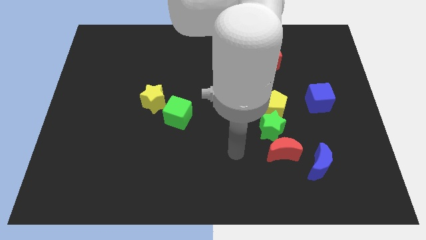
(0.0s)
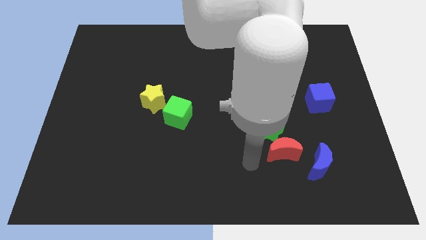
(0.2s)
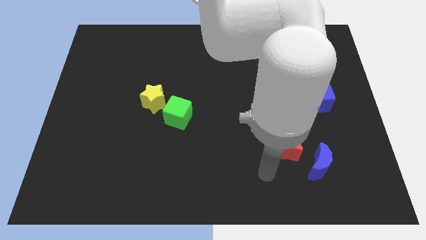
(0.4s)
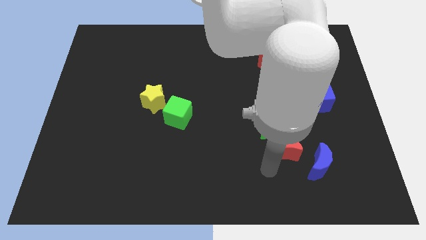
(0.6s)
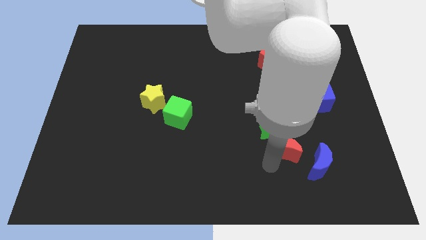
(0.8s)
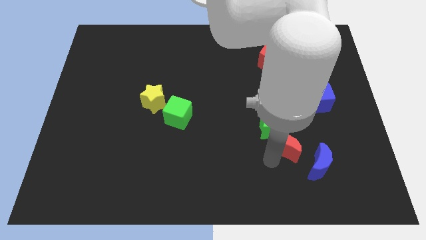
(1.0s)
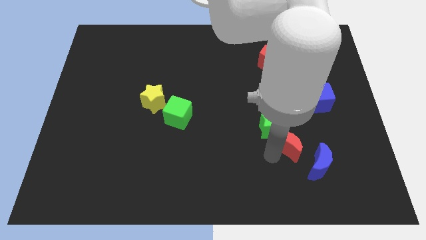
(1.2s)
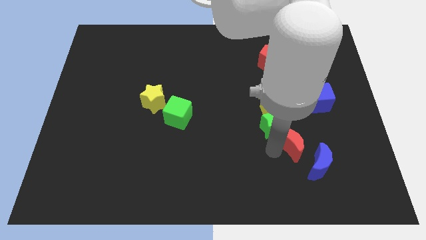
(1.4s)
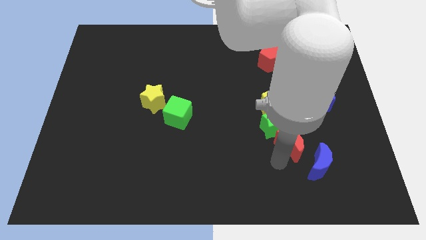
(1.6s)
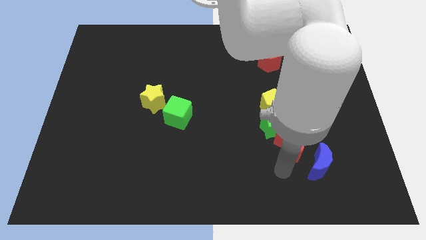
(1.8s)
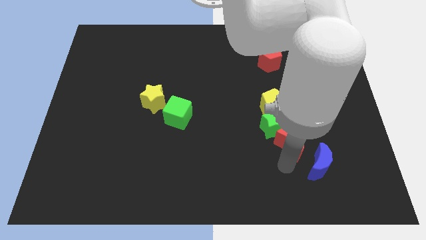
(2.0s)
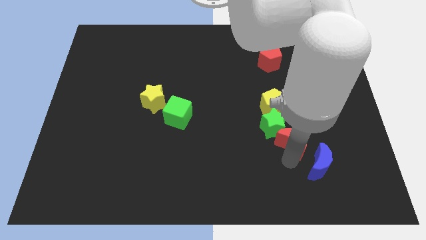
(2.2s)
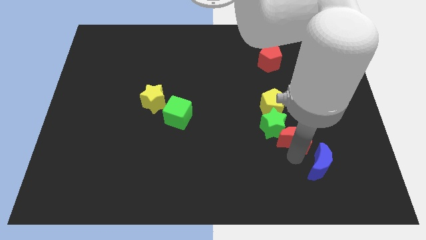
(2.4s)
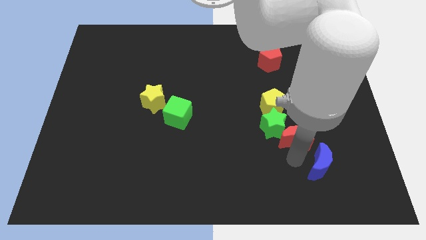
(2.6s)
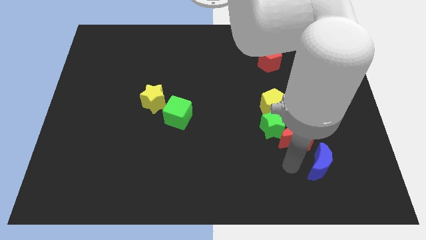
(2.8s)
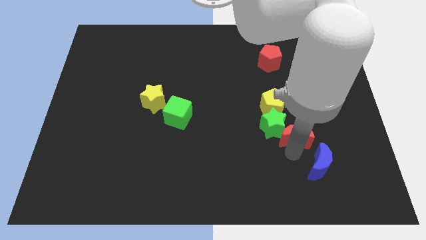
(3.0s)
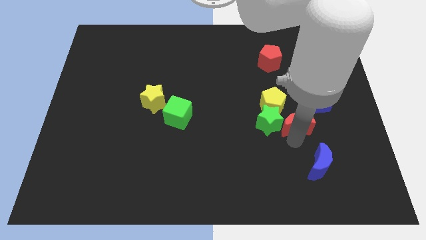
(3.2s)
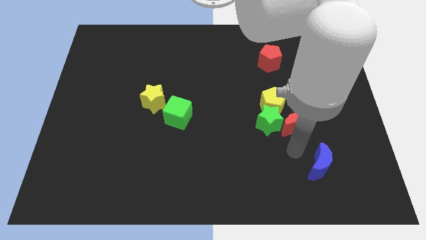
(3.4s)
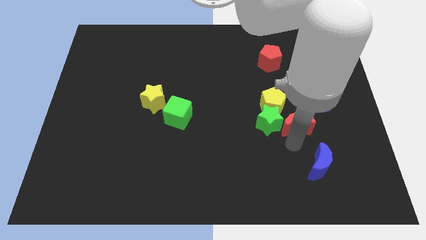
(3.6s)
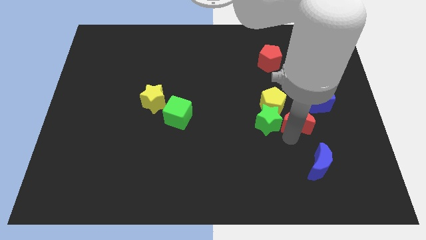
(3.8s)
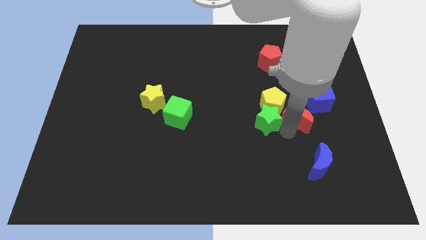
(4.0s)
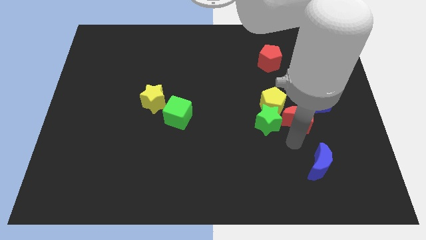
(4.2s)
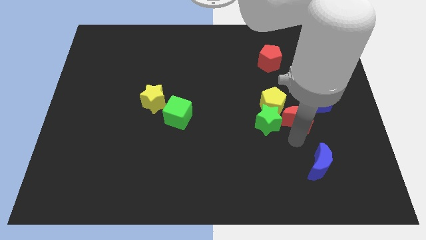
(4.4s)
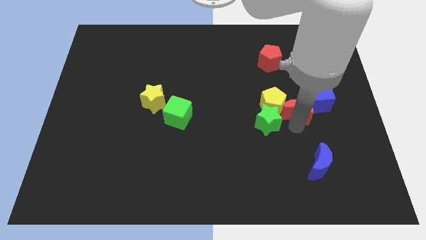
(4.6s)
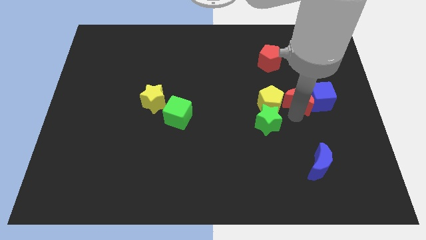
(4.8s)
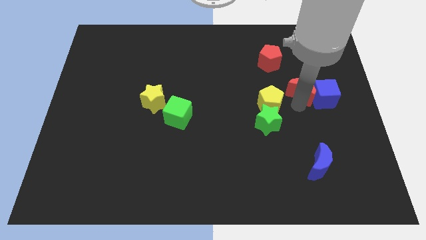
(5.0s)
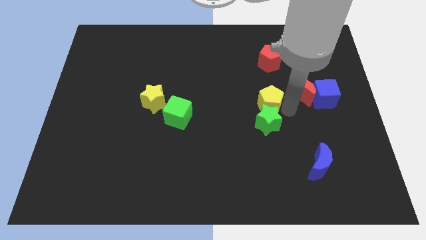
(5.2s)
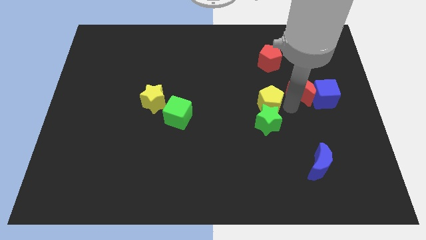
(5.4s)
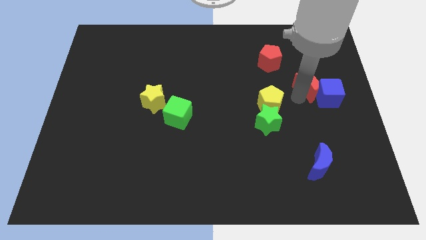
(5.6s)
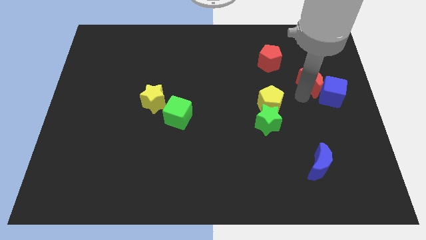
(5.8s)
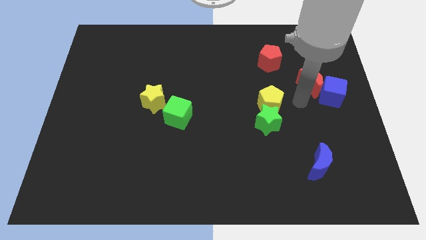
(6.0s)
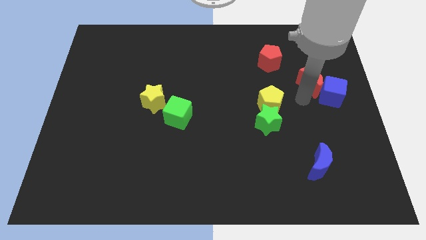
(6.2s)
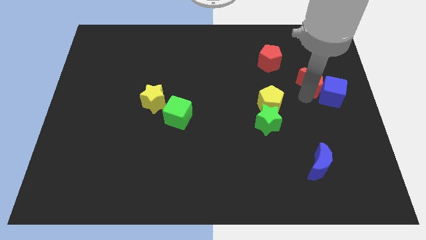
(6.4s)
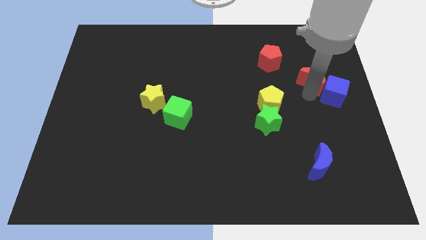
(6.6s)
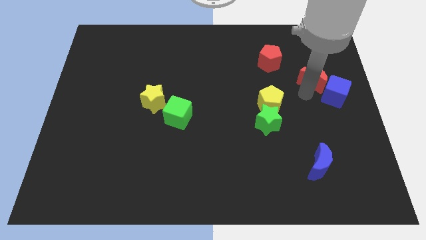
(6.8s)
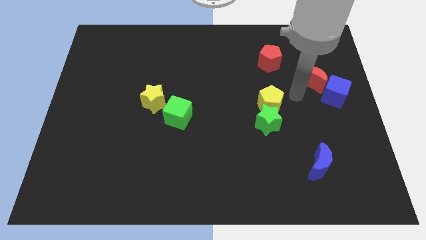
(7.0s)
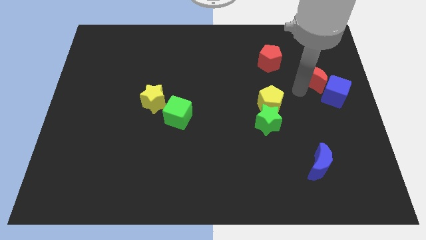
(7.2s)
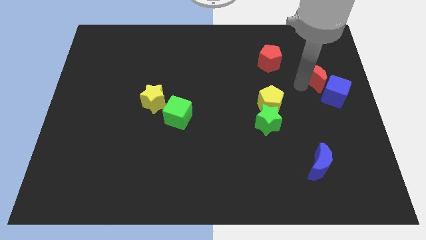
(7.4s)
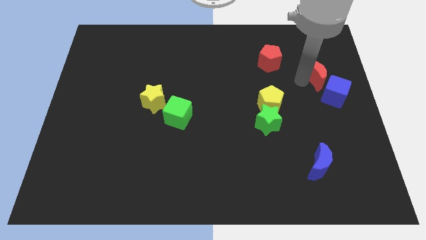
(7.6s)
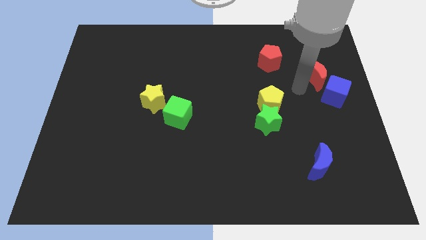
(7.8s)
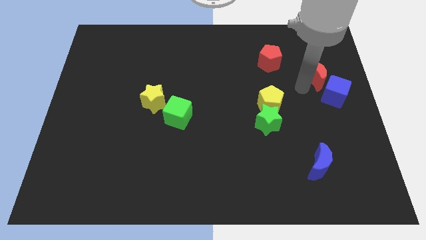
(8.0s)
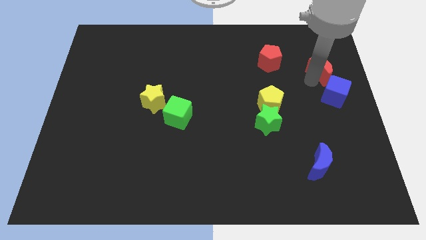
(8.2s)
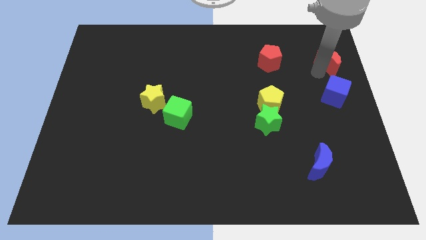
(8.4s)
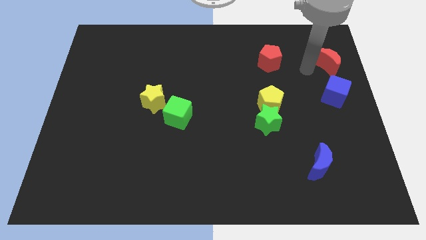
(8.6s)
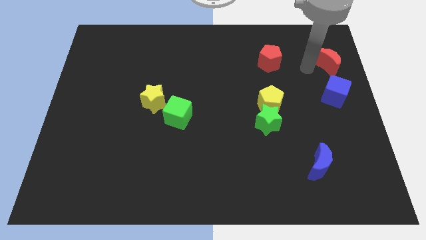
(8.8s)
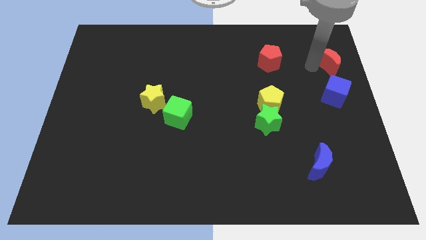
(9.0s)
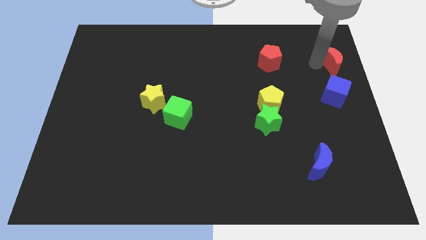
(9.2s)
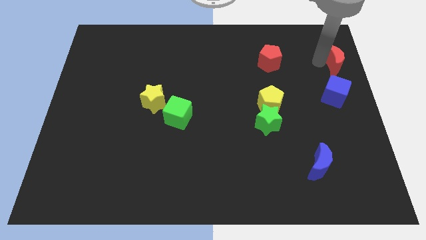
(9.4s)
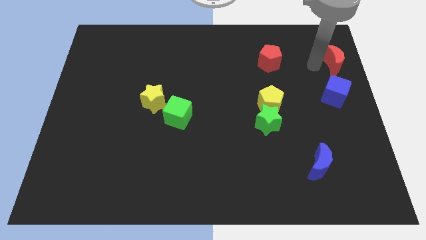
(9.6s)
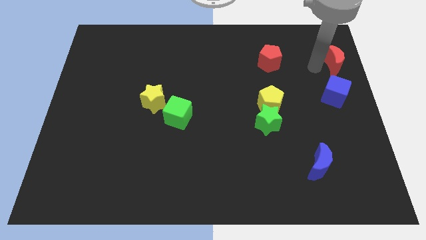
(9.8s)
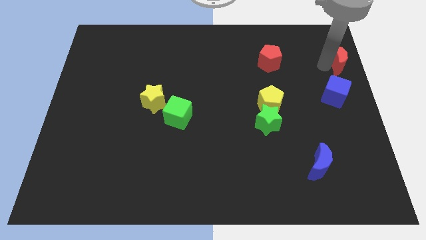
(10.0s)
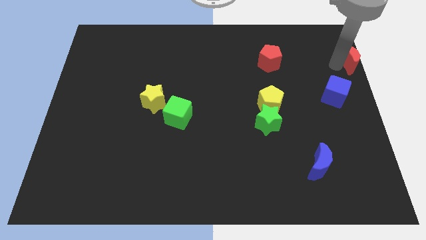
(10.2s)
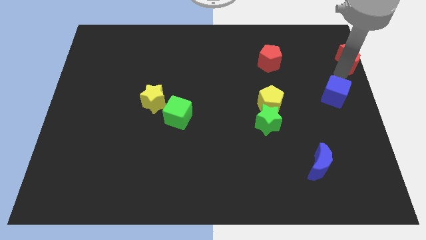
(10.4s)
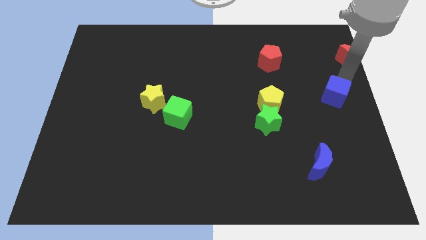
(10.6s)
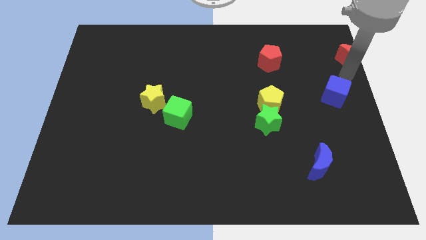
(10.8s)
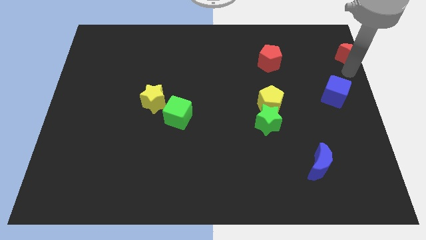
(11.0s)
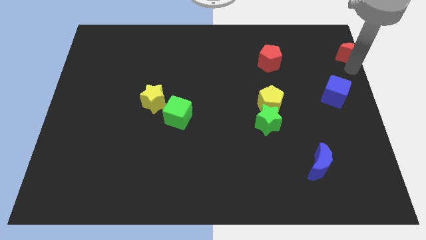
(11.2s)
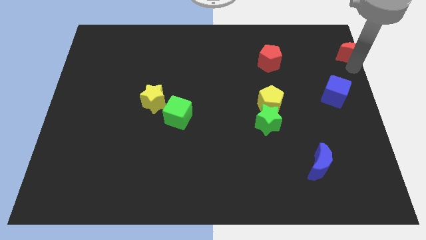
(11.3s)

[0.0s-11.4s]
slide the red moon to the top right
